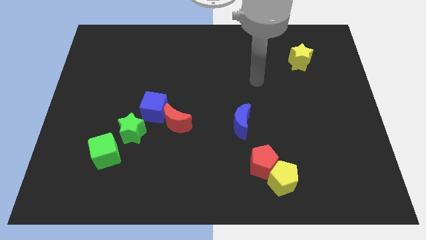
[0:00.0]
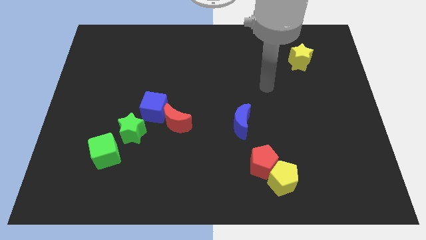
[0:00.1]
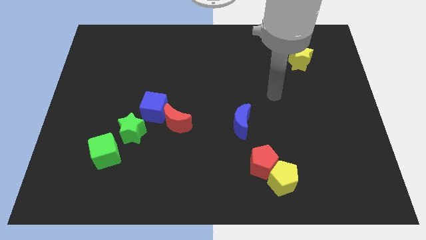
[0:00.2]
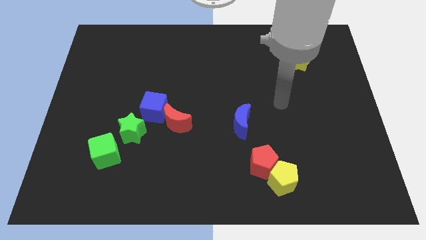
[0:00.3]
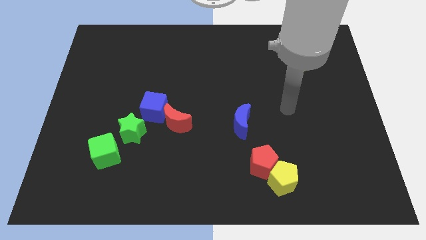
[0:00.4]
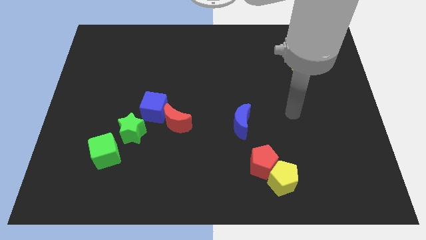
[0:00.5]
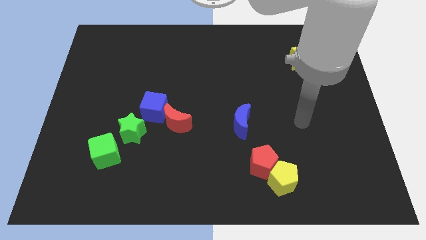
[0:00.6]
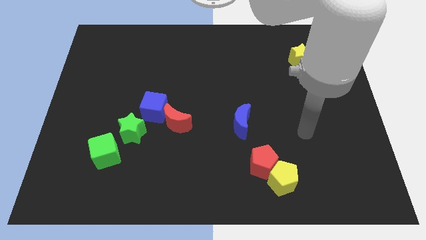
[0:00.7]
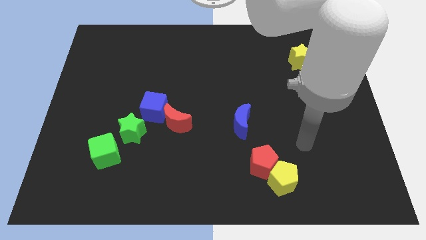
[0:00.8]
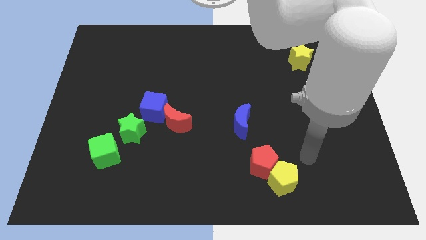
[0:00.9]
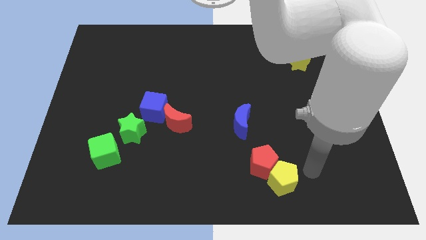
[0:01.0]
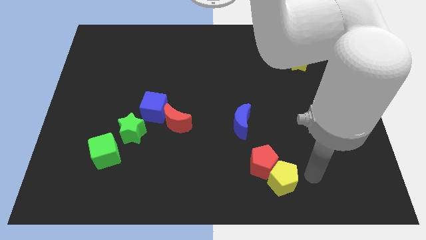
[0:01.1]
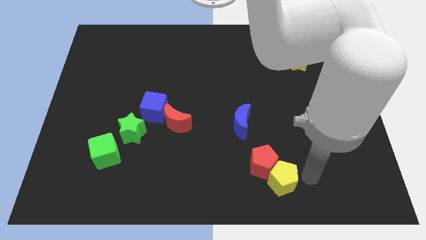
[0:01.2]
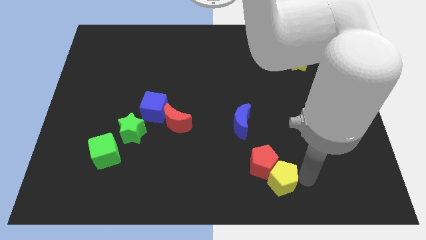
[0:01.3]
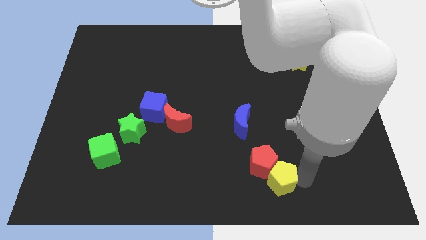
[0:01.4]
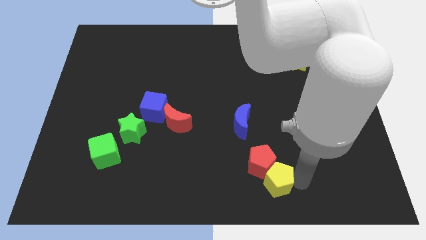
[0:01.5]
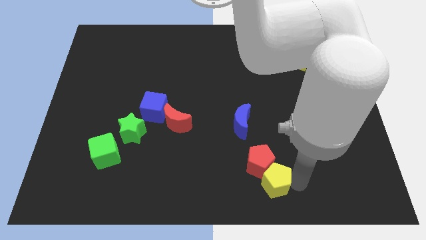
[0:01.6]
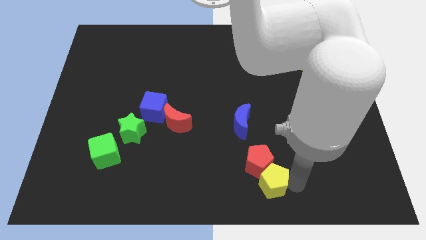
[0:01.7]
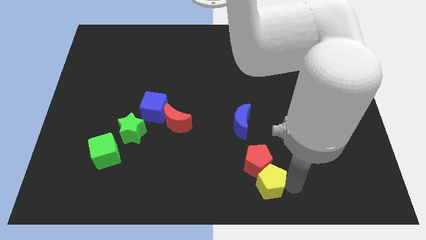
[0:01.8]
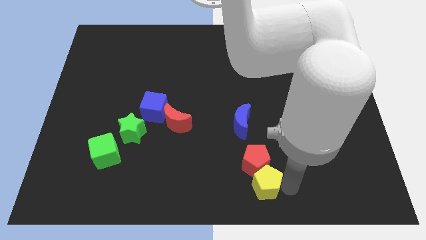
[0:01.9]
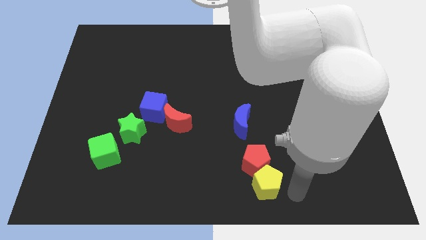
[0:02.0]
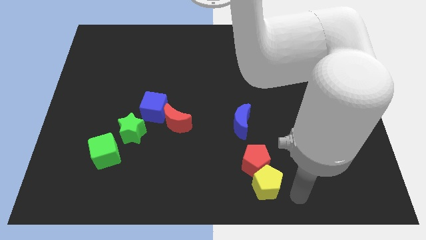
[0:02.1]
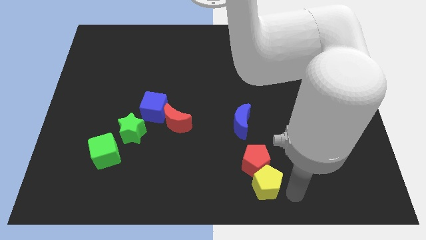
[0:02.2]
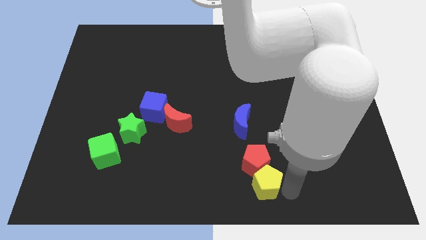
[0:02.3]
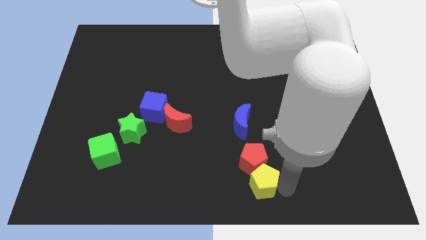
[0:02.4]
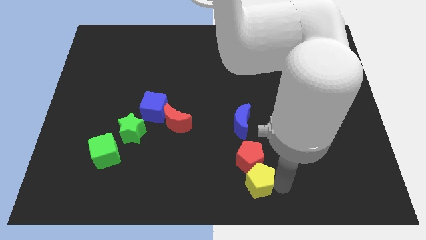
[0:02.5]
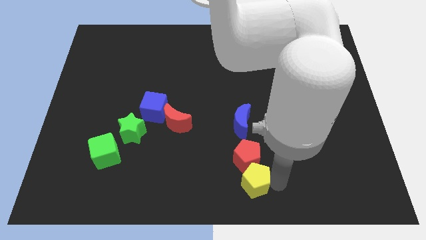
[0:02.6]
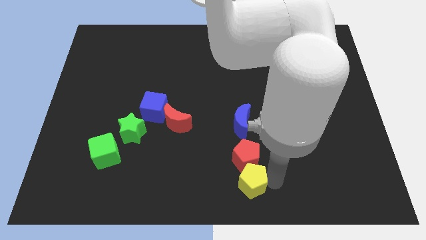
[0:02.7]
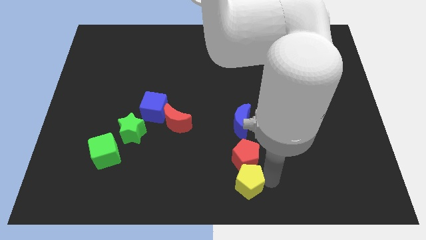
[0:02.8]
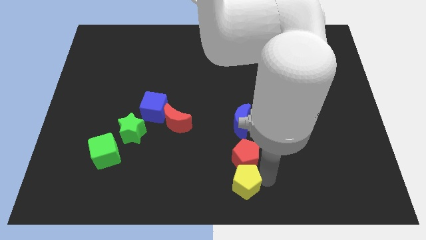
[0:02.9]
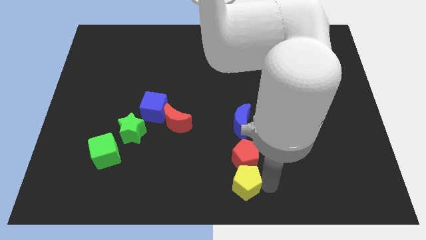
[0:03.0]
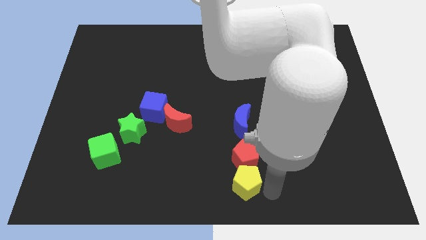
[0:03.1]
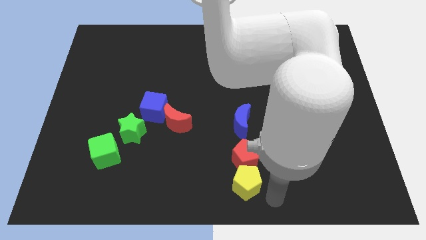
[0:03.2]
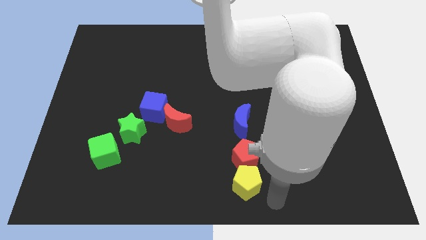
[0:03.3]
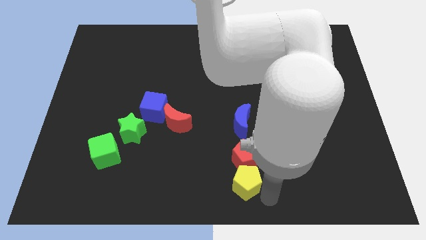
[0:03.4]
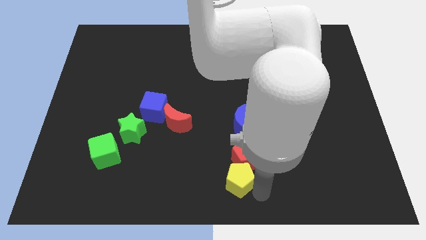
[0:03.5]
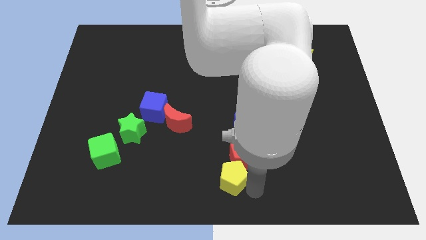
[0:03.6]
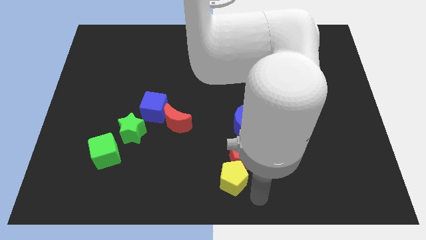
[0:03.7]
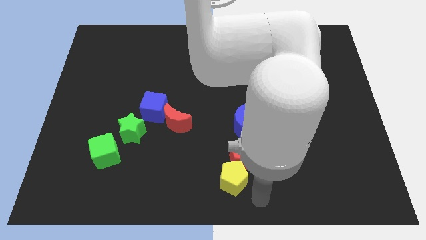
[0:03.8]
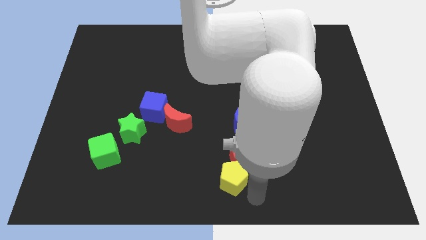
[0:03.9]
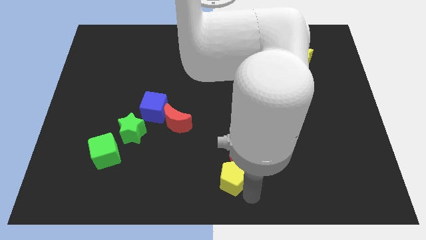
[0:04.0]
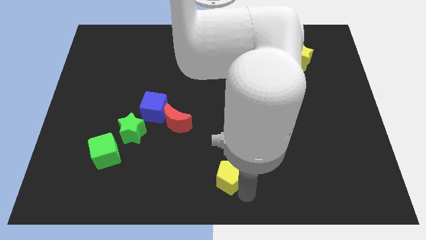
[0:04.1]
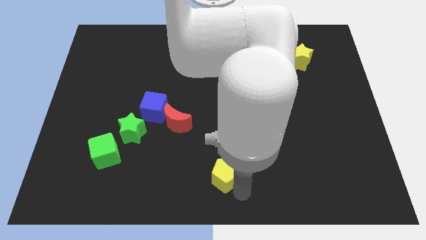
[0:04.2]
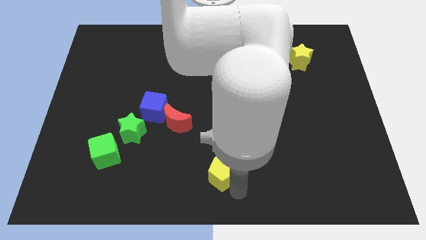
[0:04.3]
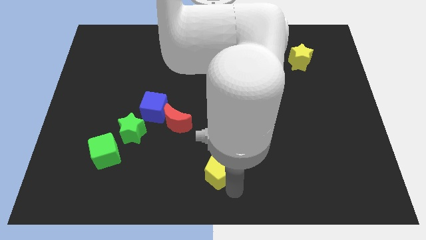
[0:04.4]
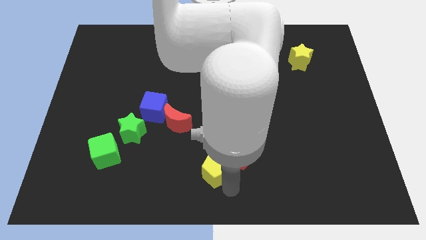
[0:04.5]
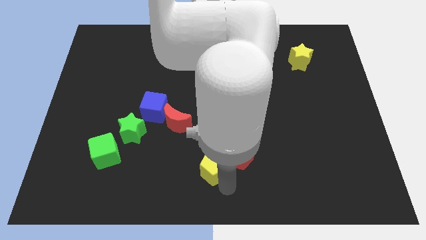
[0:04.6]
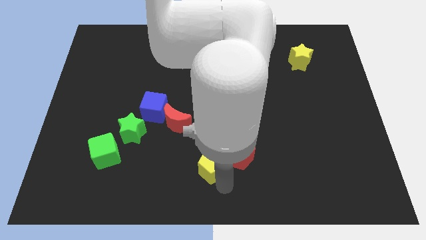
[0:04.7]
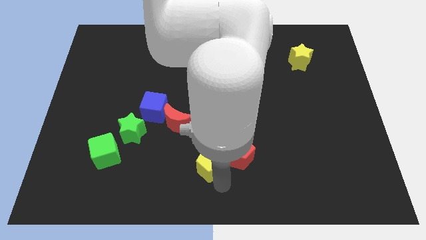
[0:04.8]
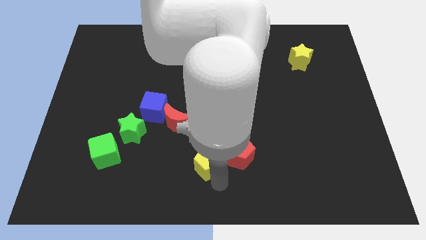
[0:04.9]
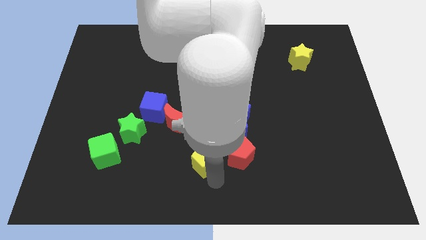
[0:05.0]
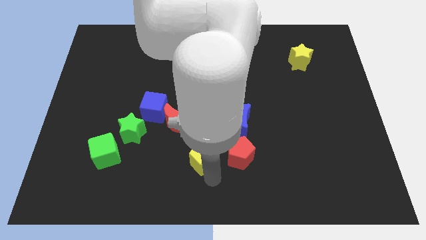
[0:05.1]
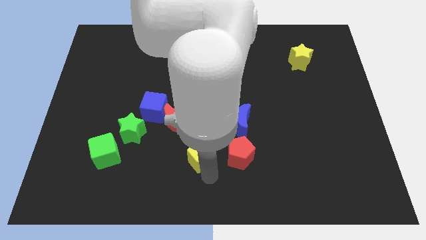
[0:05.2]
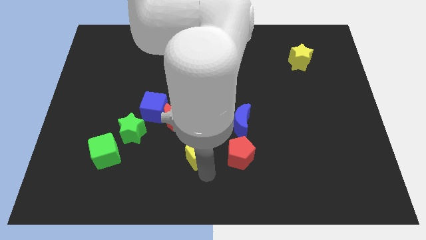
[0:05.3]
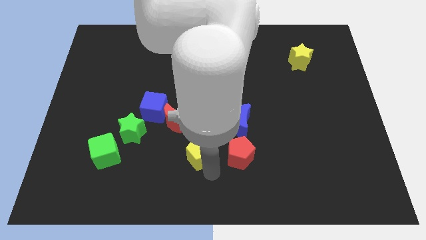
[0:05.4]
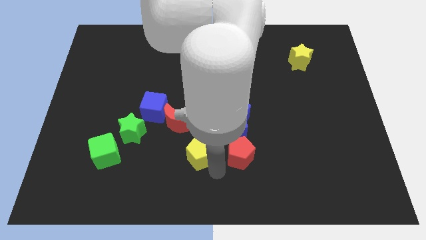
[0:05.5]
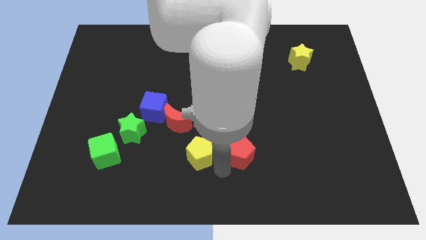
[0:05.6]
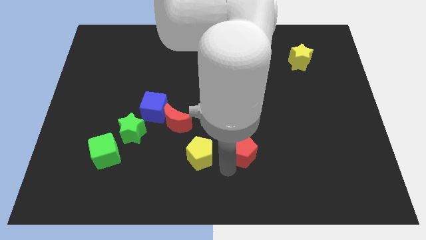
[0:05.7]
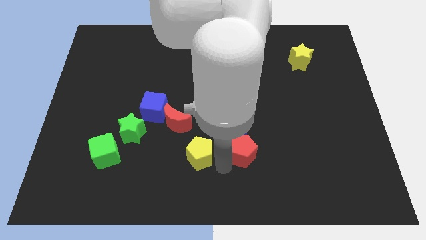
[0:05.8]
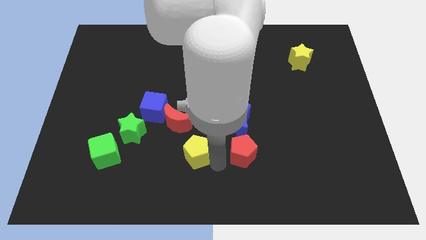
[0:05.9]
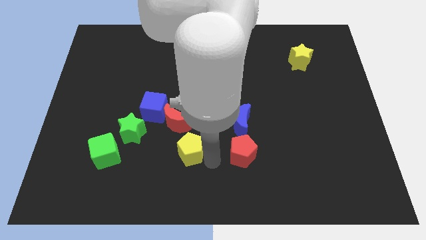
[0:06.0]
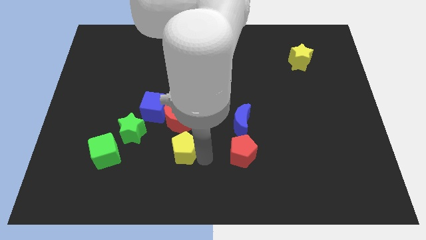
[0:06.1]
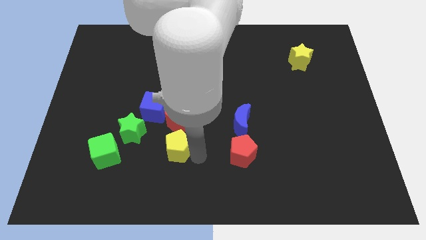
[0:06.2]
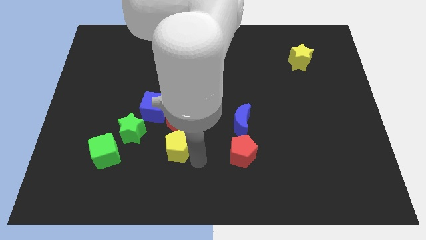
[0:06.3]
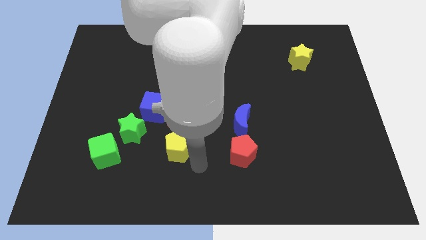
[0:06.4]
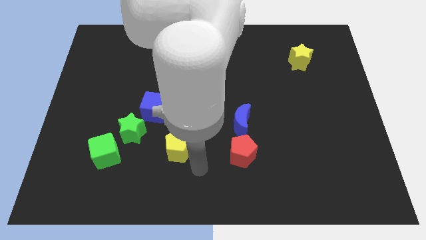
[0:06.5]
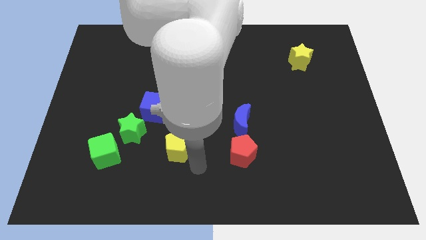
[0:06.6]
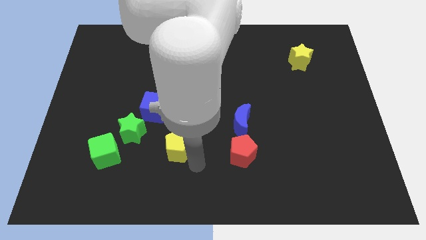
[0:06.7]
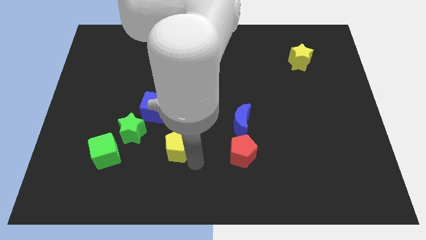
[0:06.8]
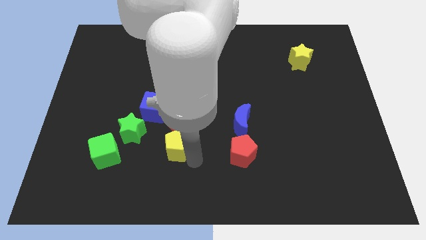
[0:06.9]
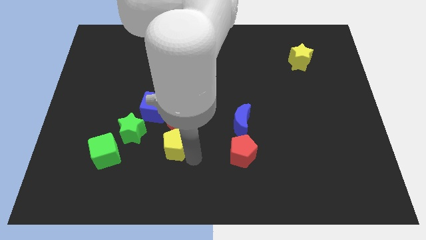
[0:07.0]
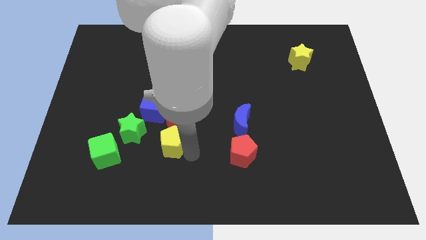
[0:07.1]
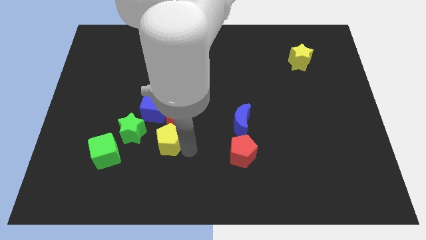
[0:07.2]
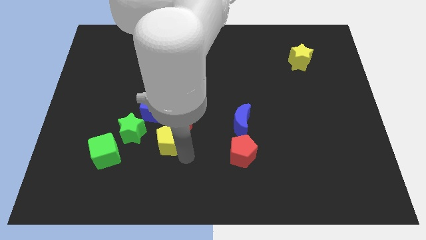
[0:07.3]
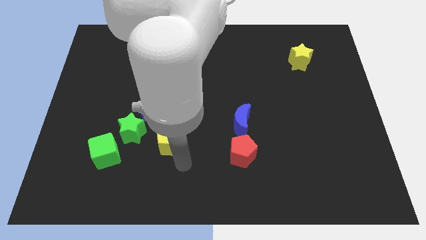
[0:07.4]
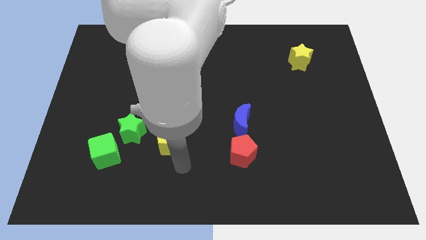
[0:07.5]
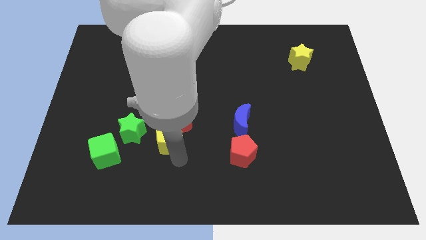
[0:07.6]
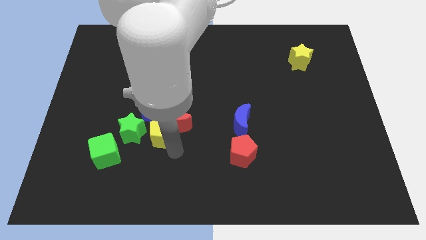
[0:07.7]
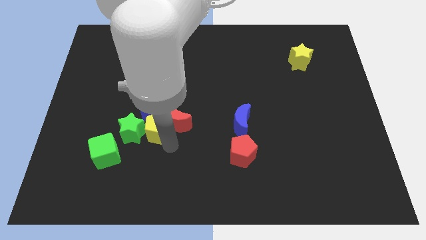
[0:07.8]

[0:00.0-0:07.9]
push the yellow pentagon next to the blue cube
